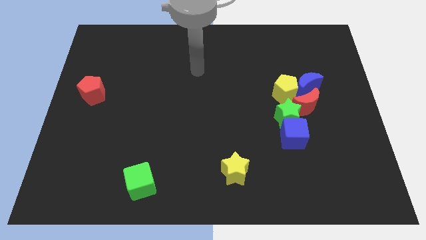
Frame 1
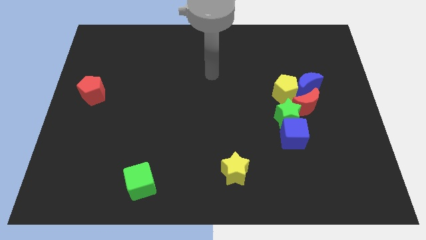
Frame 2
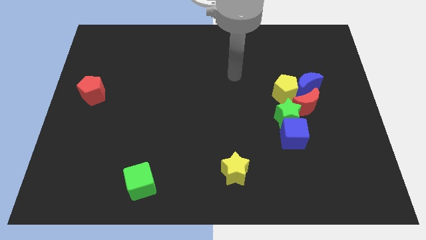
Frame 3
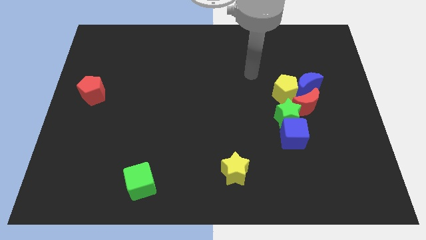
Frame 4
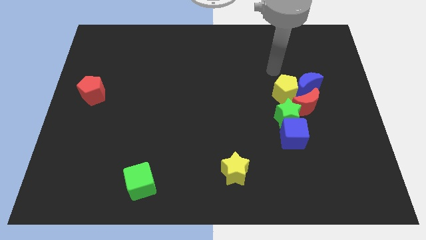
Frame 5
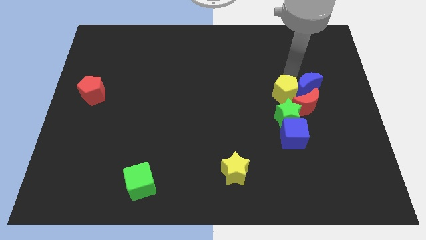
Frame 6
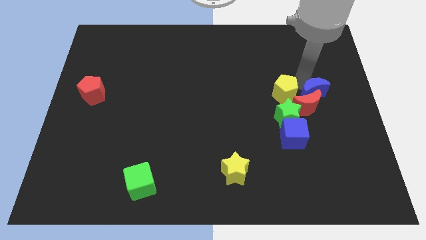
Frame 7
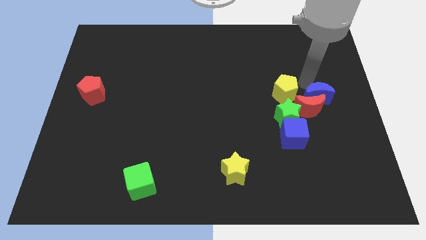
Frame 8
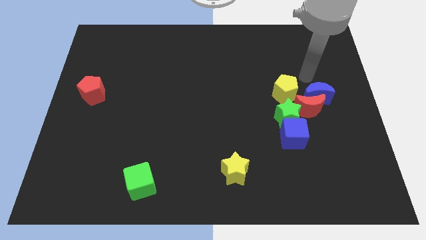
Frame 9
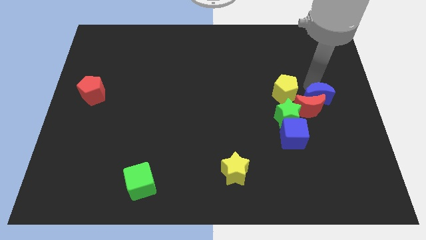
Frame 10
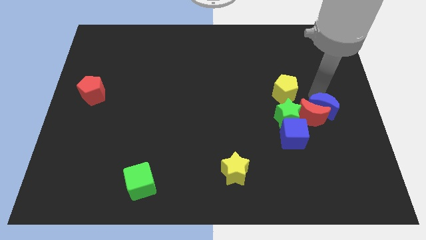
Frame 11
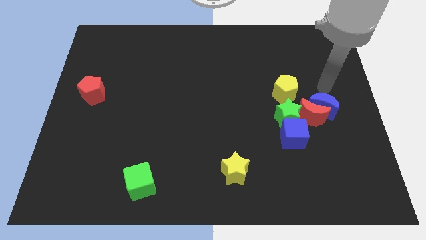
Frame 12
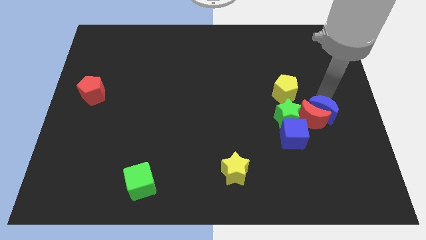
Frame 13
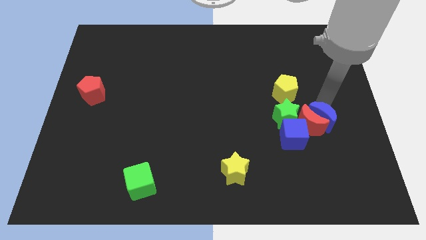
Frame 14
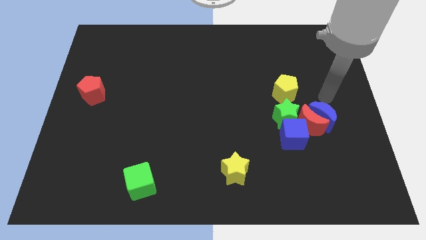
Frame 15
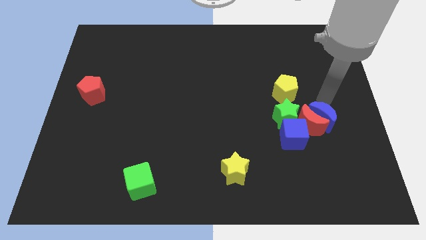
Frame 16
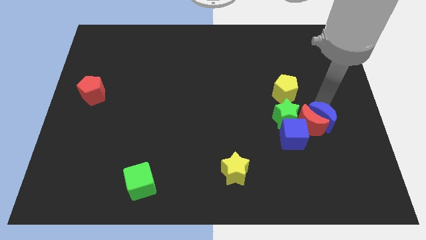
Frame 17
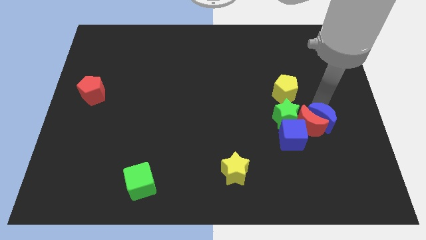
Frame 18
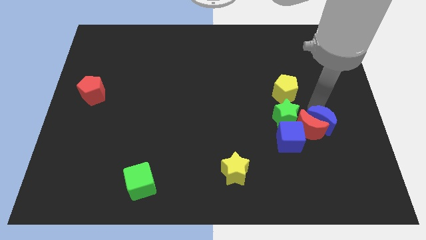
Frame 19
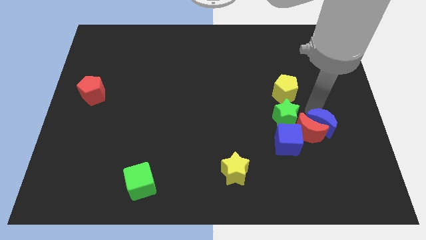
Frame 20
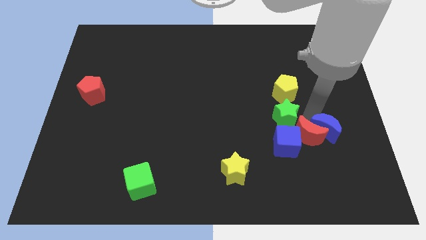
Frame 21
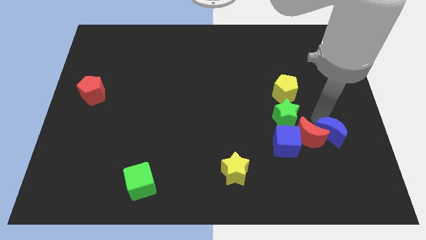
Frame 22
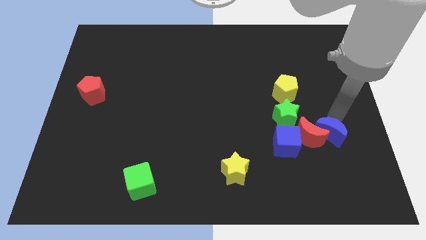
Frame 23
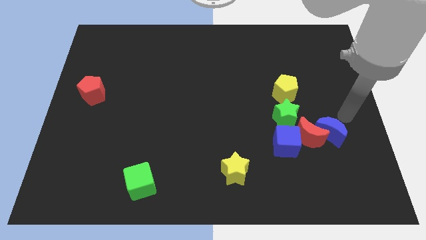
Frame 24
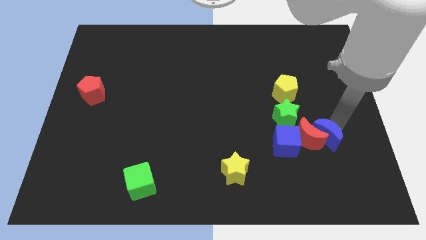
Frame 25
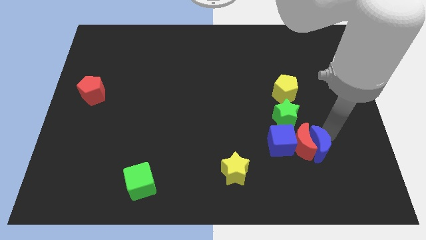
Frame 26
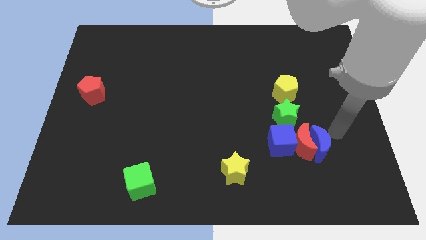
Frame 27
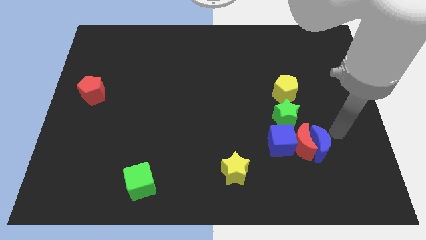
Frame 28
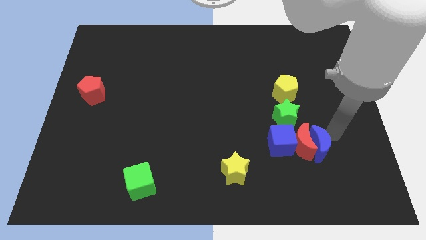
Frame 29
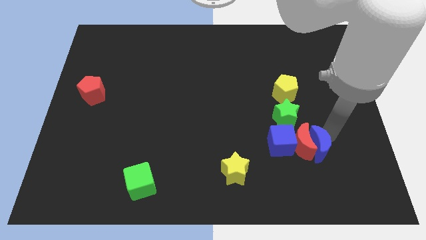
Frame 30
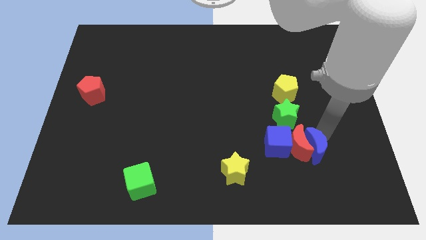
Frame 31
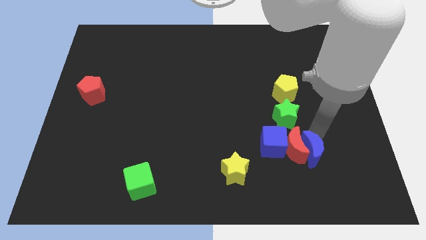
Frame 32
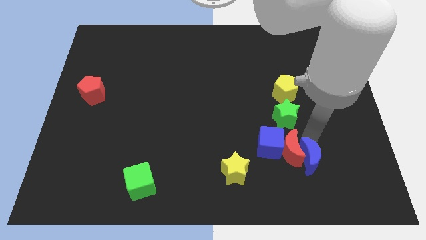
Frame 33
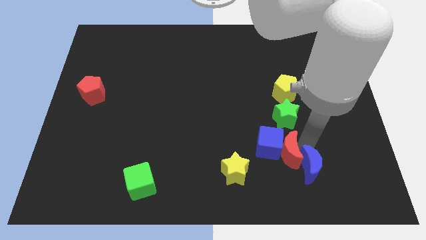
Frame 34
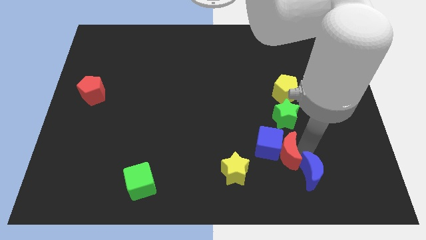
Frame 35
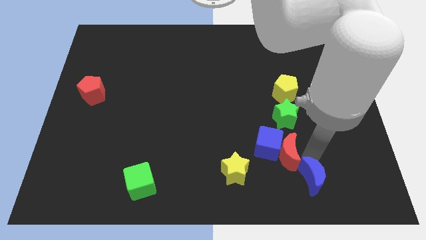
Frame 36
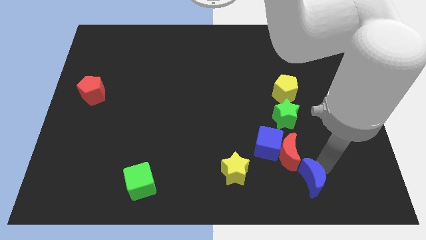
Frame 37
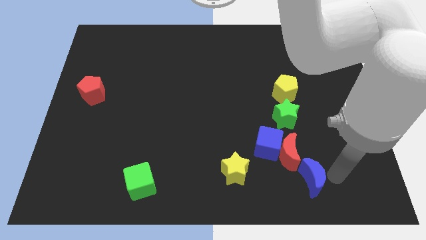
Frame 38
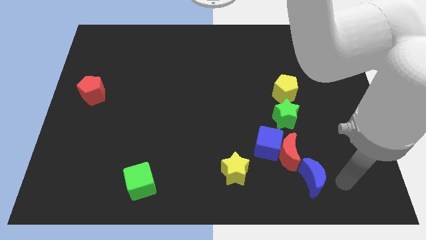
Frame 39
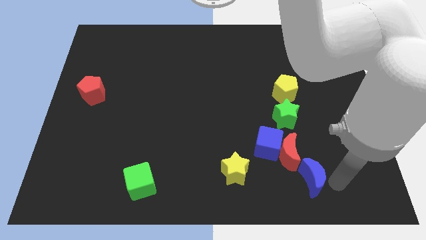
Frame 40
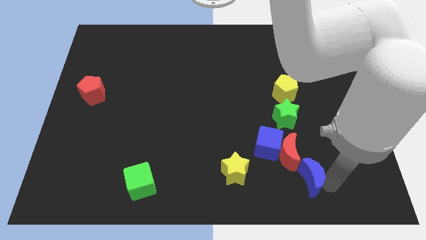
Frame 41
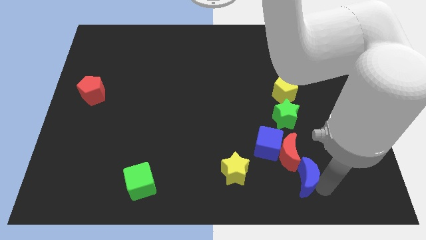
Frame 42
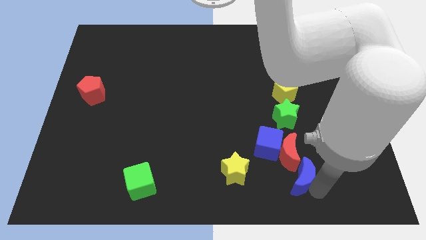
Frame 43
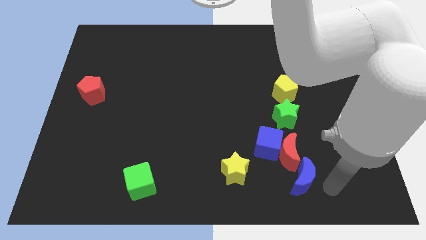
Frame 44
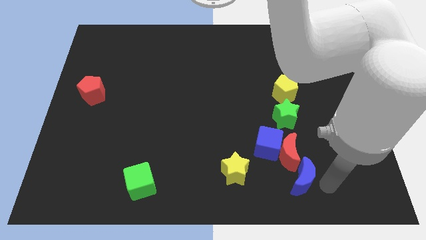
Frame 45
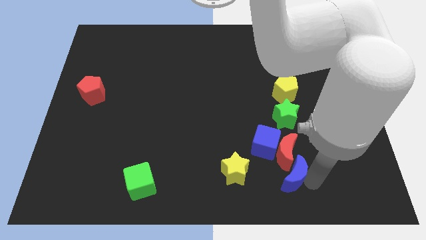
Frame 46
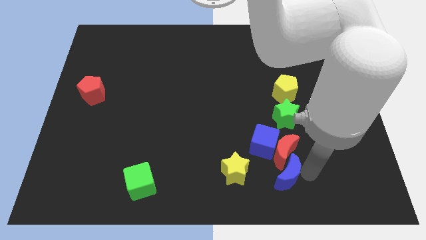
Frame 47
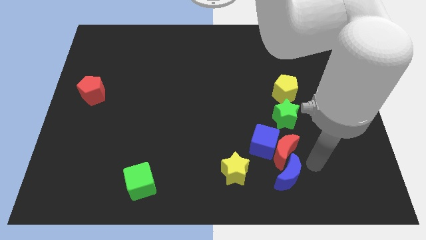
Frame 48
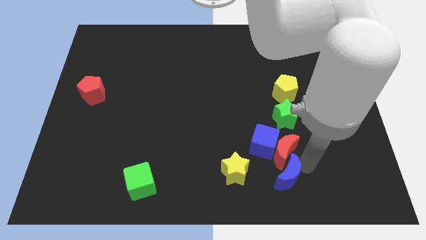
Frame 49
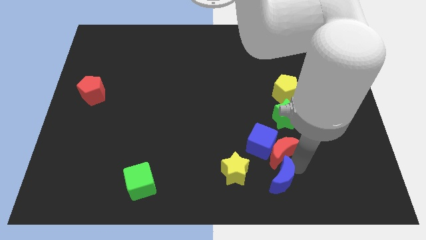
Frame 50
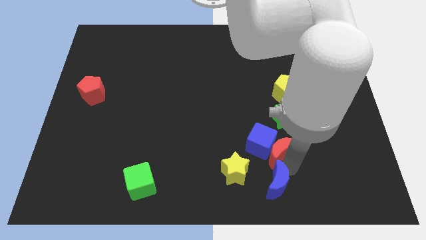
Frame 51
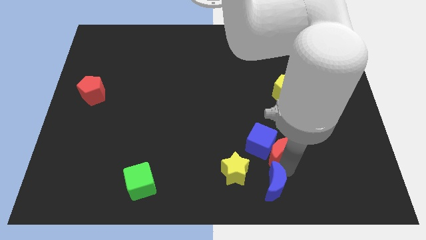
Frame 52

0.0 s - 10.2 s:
move the blue moon to the bottom
